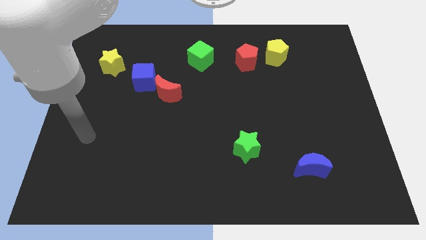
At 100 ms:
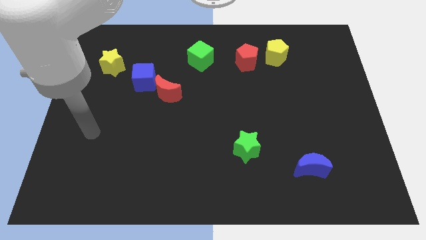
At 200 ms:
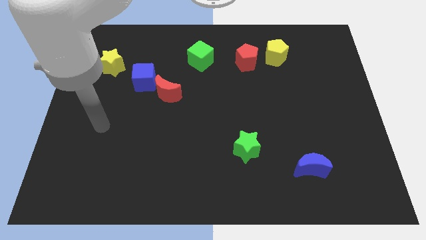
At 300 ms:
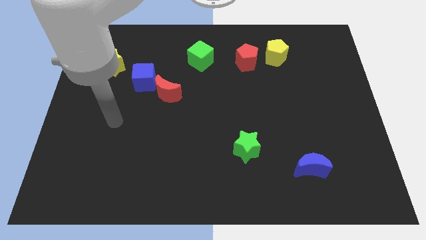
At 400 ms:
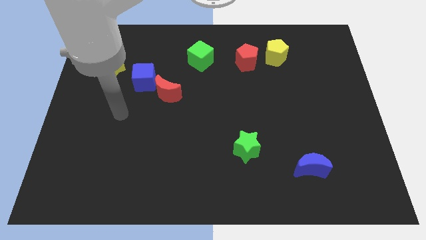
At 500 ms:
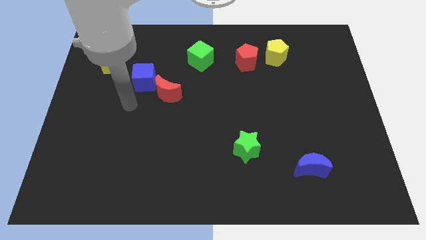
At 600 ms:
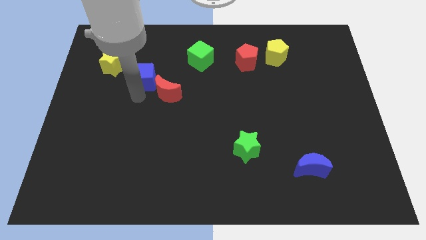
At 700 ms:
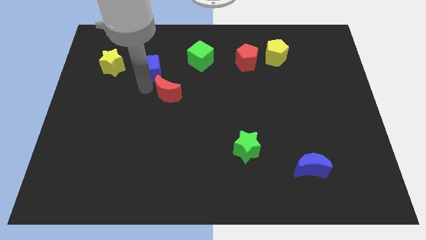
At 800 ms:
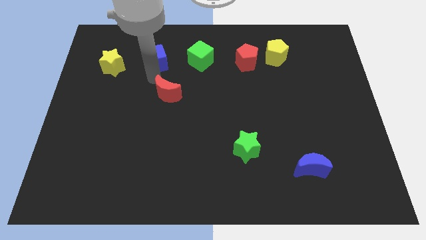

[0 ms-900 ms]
separate the red moon from the blue cube

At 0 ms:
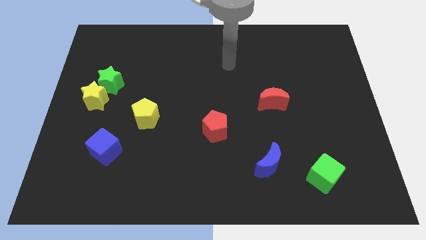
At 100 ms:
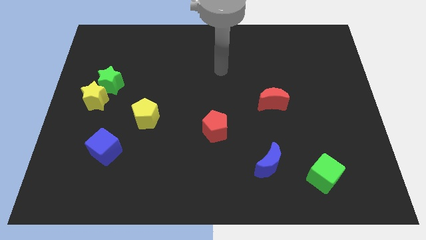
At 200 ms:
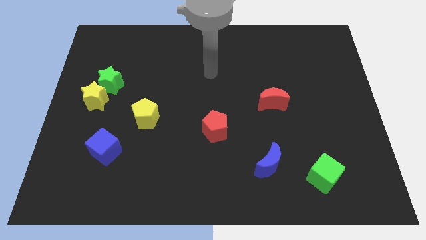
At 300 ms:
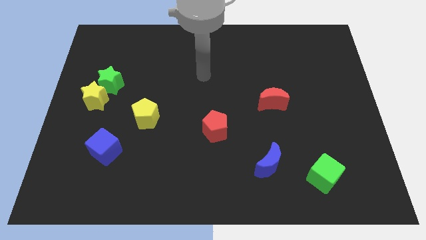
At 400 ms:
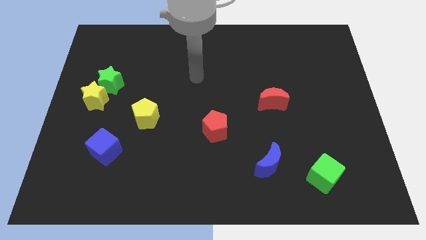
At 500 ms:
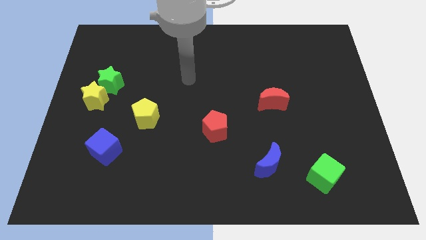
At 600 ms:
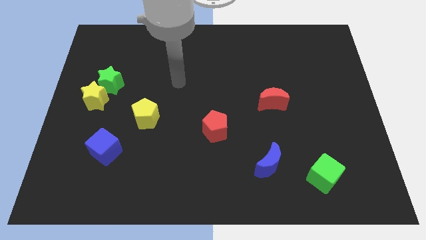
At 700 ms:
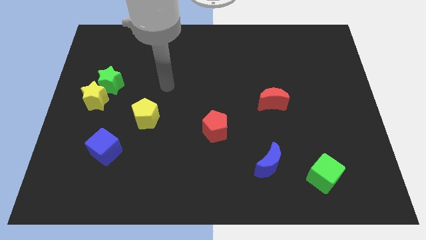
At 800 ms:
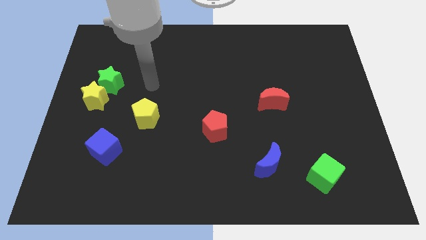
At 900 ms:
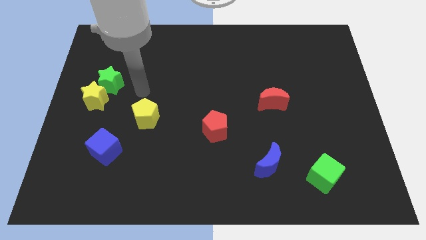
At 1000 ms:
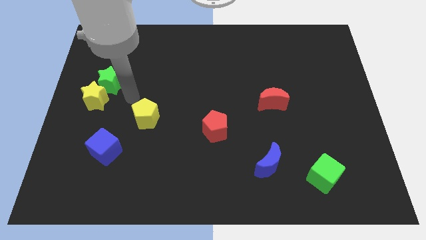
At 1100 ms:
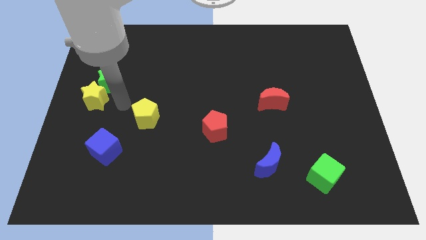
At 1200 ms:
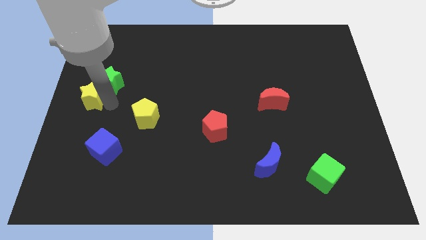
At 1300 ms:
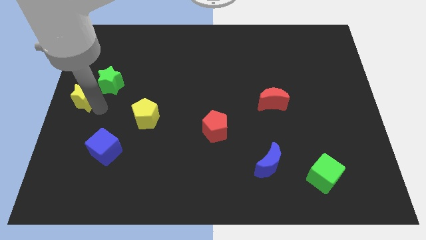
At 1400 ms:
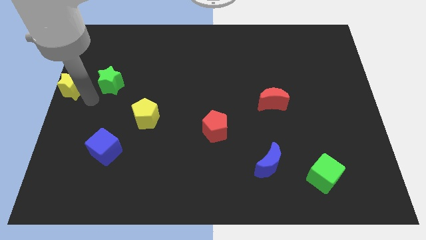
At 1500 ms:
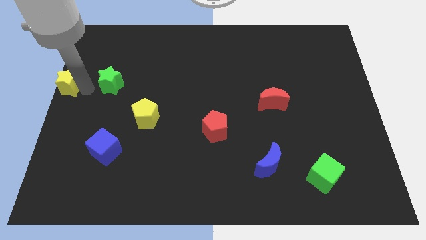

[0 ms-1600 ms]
separate the green star from the yellow star

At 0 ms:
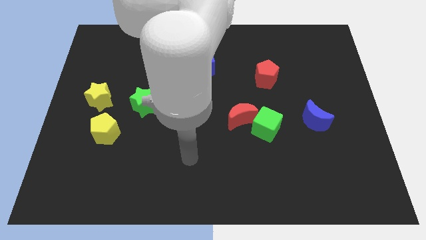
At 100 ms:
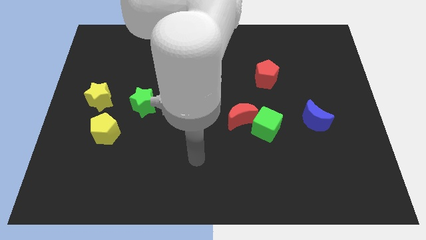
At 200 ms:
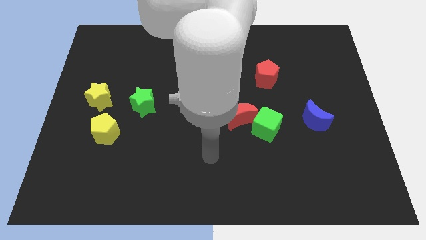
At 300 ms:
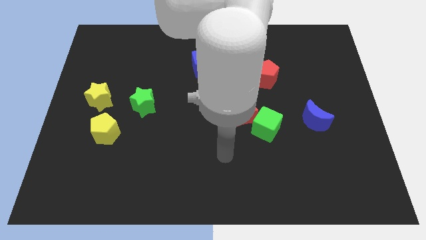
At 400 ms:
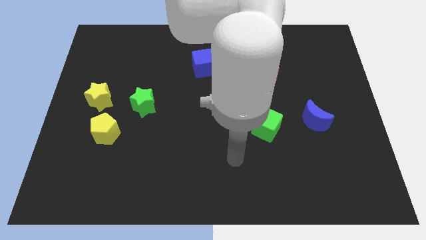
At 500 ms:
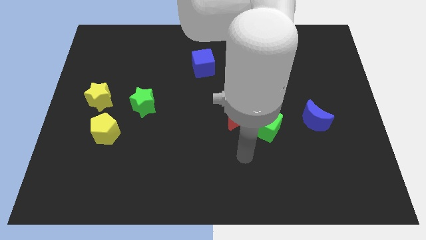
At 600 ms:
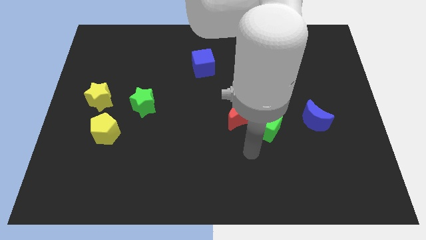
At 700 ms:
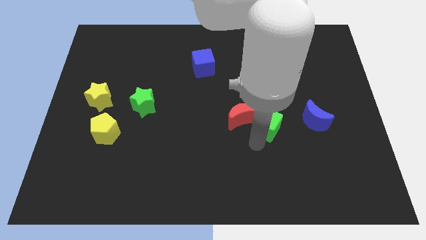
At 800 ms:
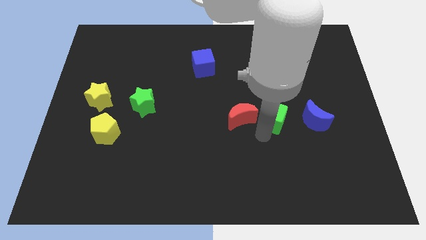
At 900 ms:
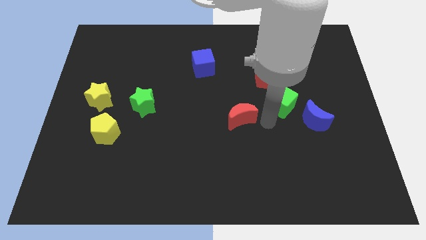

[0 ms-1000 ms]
move the red moon away from the green cube

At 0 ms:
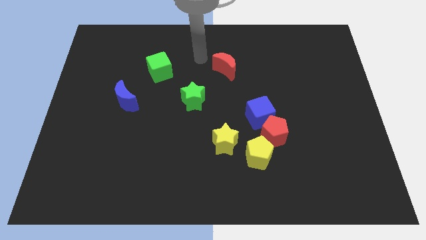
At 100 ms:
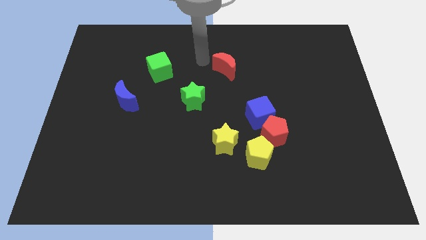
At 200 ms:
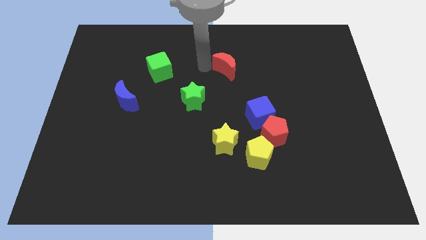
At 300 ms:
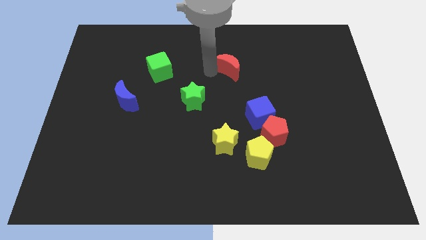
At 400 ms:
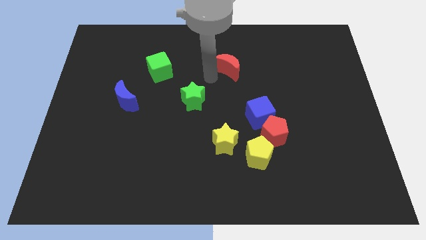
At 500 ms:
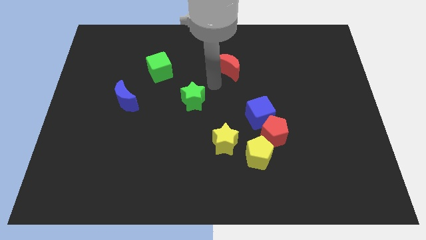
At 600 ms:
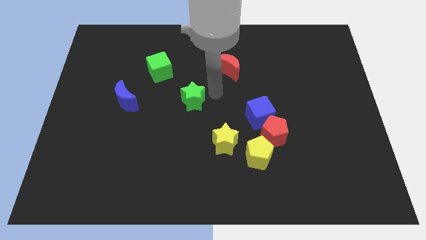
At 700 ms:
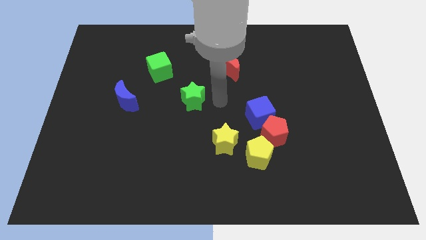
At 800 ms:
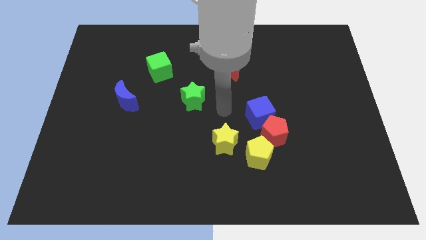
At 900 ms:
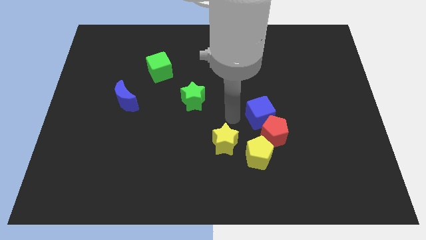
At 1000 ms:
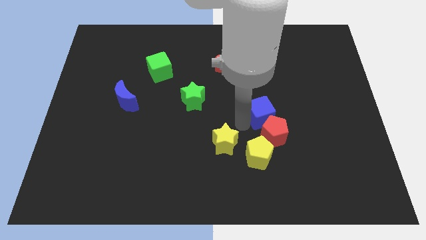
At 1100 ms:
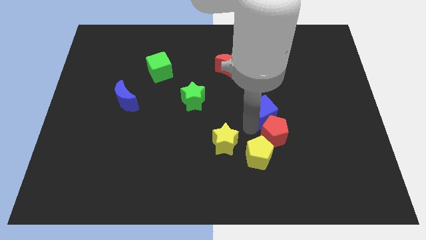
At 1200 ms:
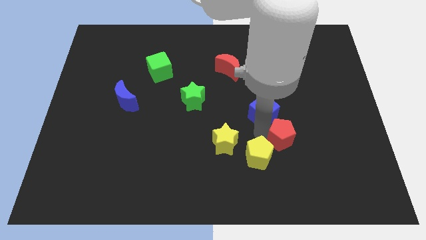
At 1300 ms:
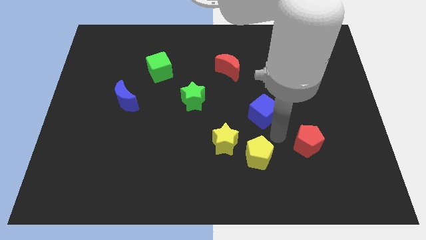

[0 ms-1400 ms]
move the blue cube away from the red pentagon

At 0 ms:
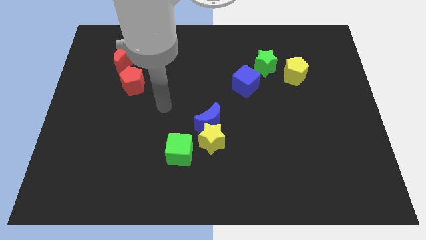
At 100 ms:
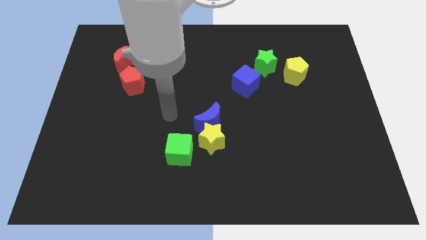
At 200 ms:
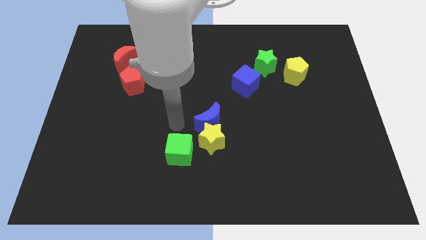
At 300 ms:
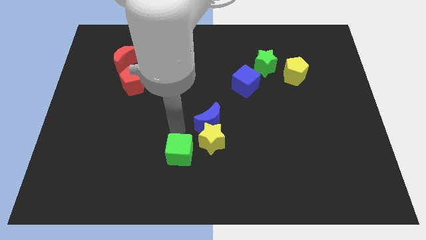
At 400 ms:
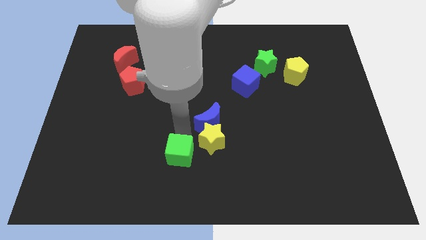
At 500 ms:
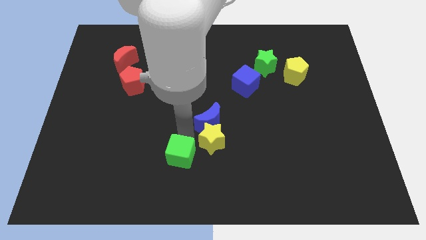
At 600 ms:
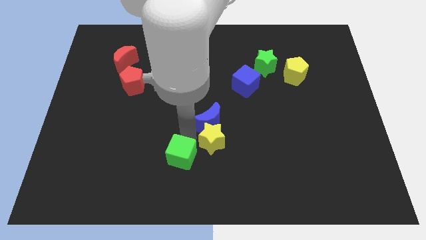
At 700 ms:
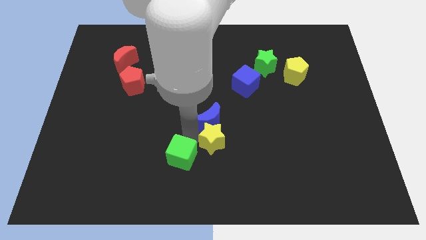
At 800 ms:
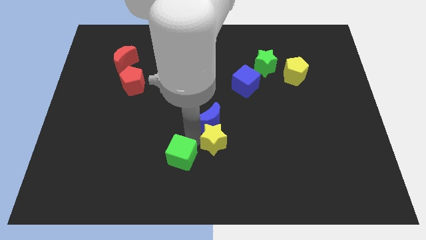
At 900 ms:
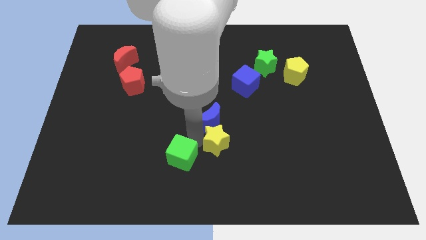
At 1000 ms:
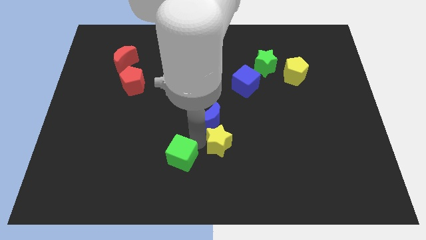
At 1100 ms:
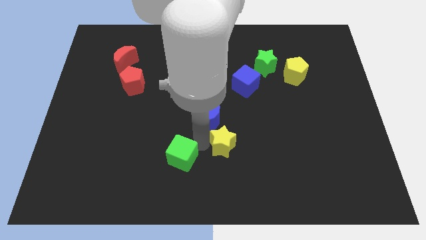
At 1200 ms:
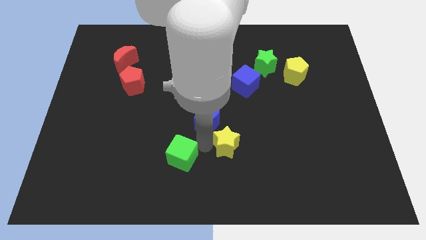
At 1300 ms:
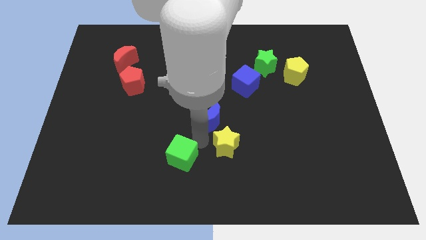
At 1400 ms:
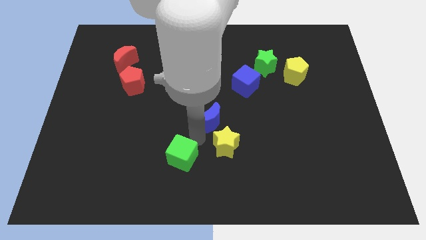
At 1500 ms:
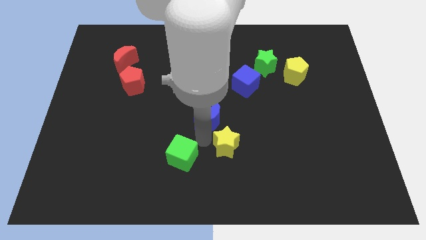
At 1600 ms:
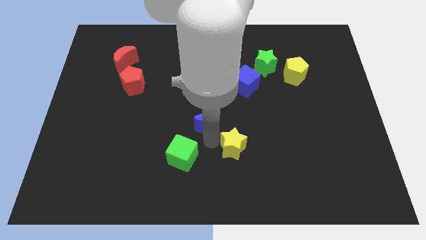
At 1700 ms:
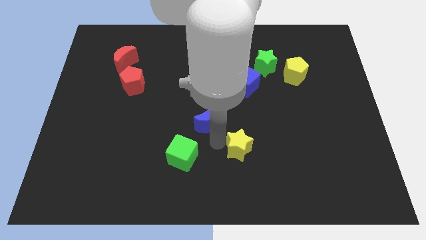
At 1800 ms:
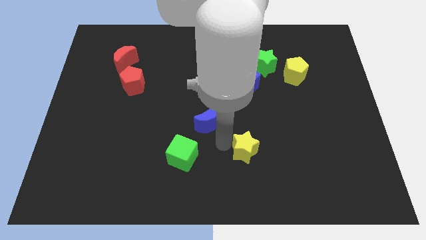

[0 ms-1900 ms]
separate the yellow star from the blue moon and green cube

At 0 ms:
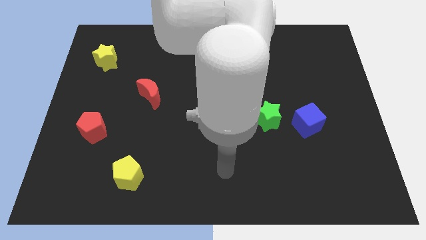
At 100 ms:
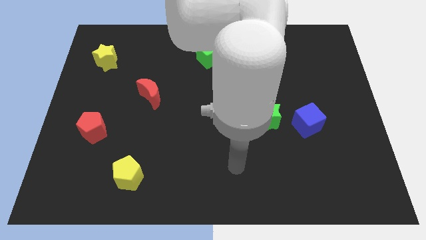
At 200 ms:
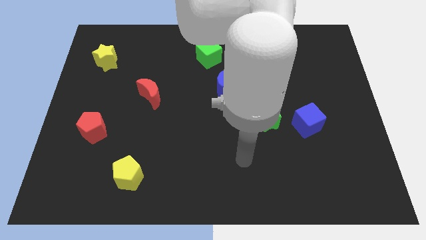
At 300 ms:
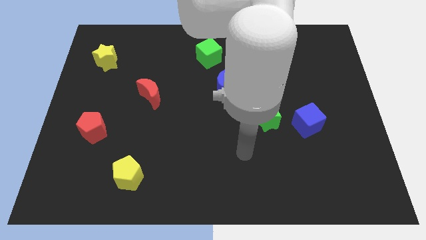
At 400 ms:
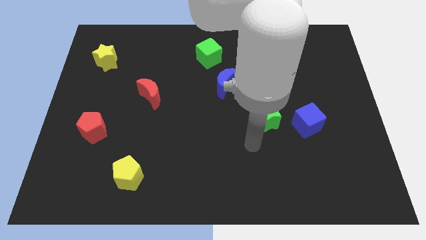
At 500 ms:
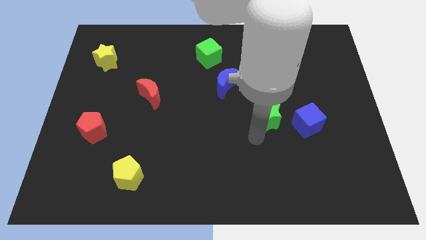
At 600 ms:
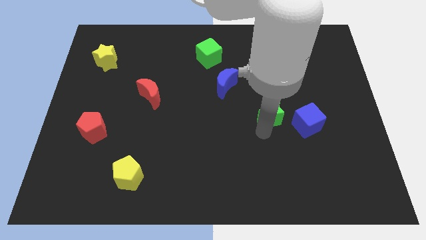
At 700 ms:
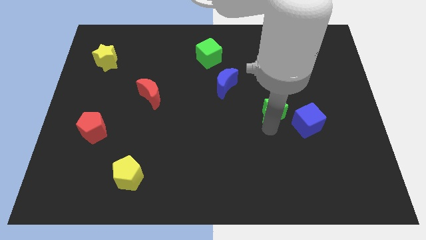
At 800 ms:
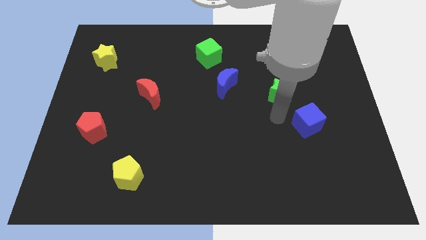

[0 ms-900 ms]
pull the blue cube apart from the green star

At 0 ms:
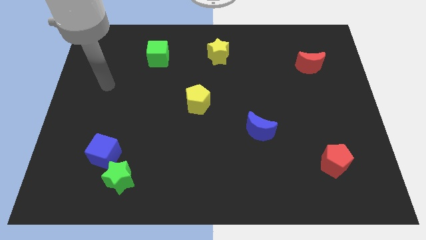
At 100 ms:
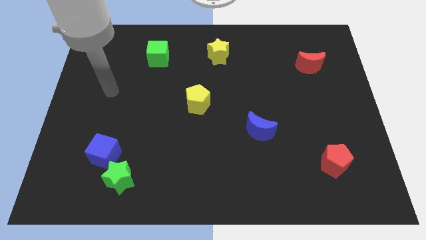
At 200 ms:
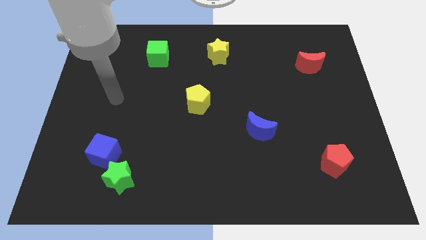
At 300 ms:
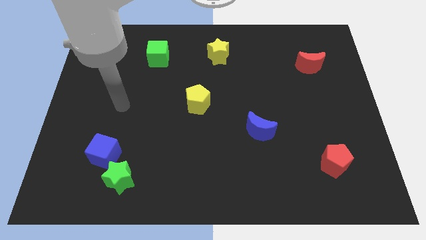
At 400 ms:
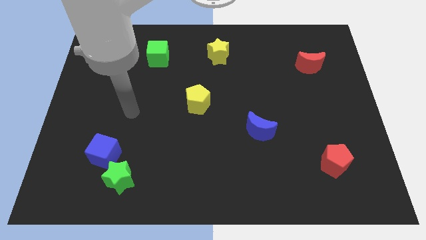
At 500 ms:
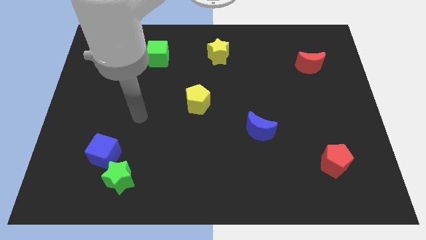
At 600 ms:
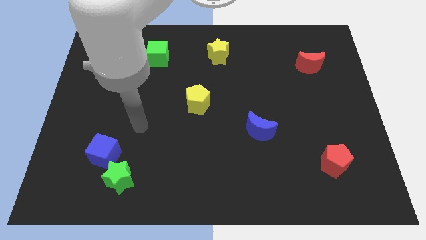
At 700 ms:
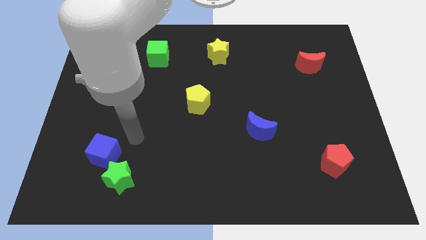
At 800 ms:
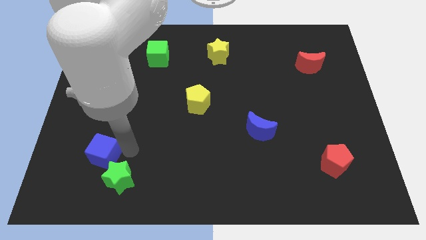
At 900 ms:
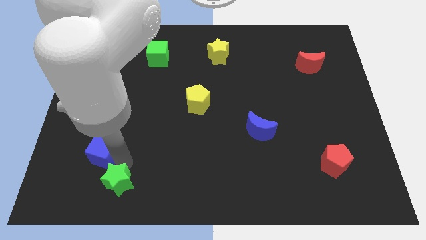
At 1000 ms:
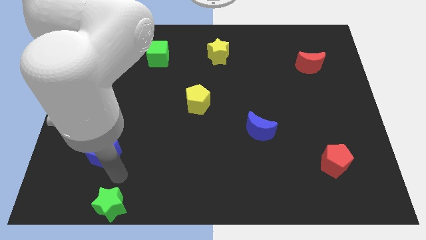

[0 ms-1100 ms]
separate the blue cube from the green star

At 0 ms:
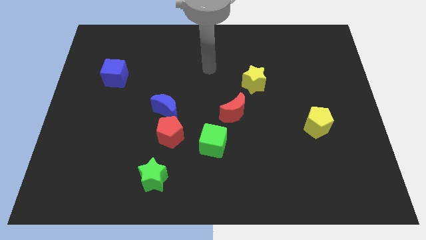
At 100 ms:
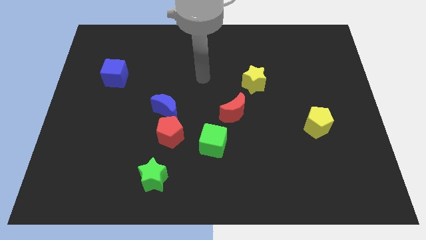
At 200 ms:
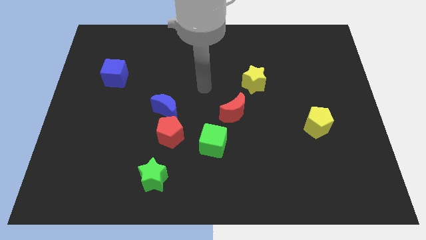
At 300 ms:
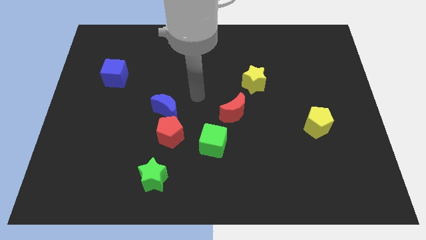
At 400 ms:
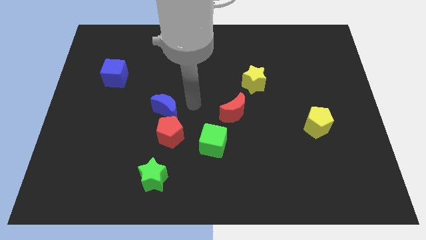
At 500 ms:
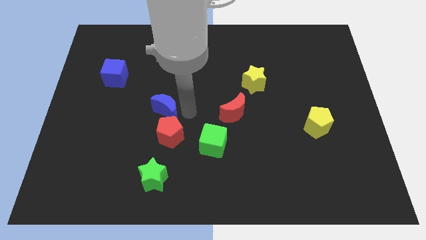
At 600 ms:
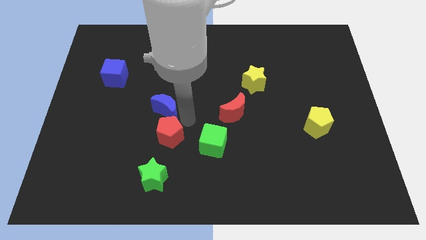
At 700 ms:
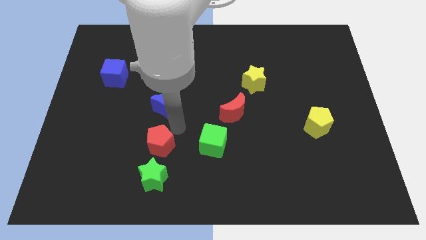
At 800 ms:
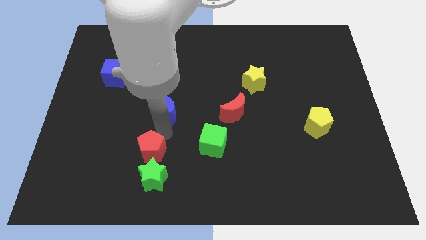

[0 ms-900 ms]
separate the blue moon from the red pentagon
